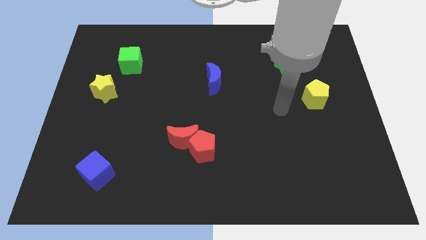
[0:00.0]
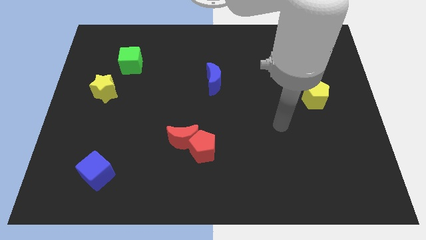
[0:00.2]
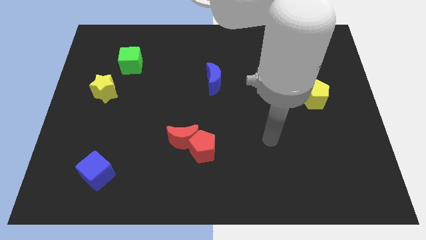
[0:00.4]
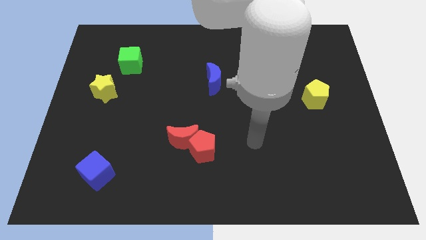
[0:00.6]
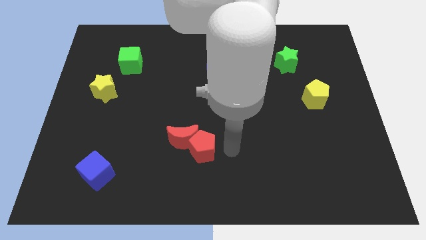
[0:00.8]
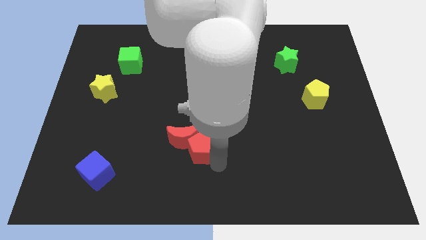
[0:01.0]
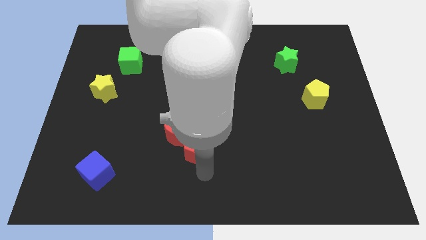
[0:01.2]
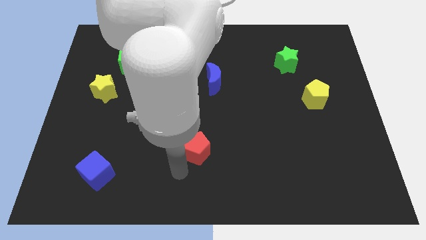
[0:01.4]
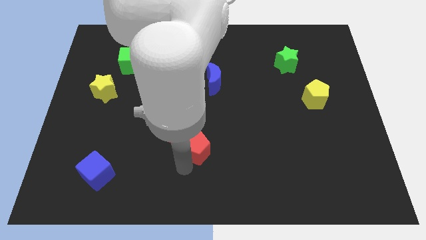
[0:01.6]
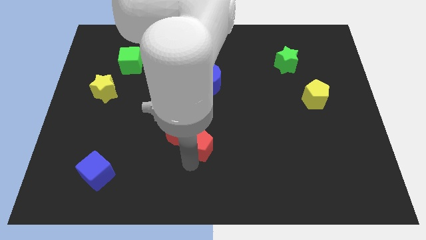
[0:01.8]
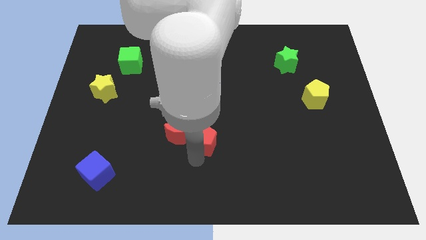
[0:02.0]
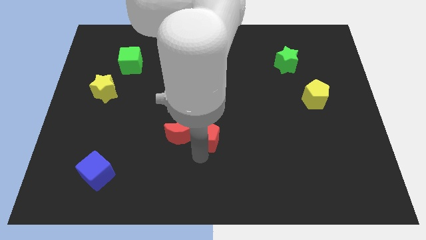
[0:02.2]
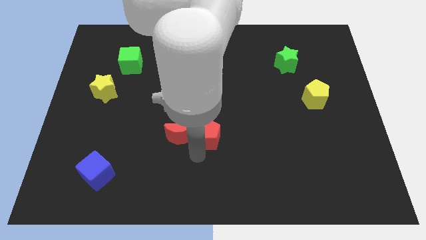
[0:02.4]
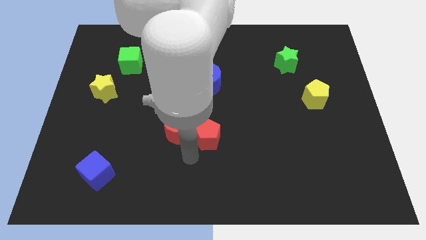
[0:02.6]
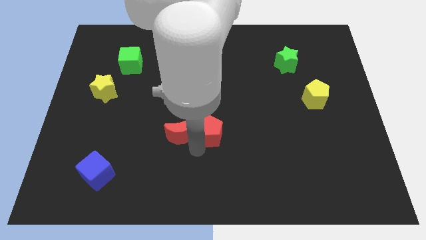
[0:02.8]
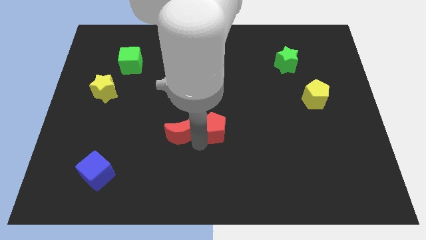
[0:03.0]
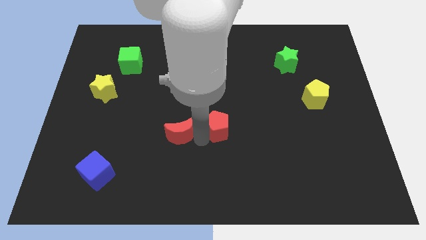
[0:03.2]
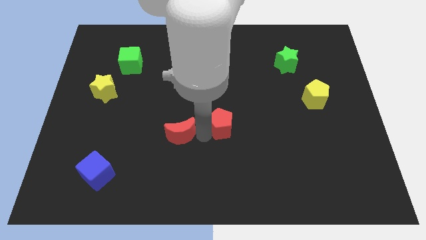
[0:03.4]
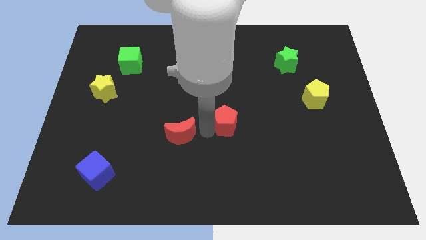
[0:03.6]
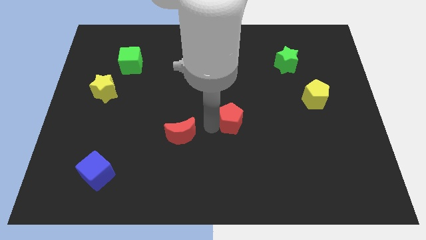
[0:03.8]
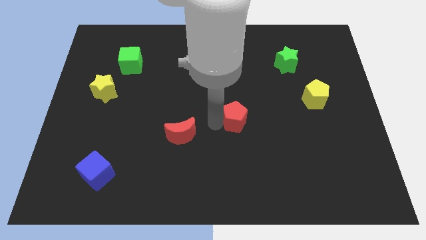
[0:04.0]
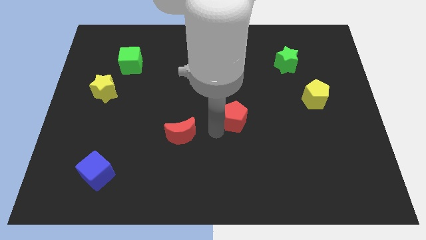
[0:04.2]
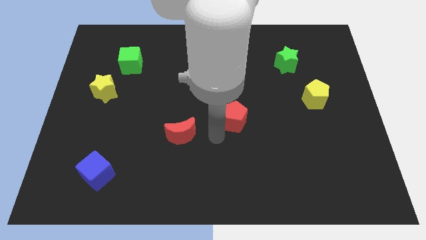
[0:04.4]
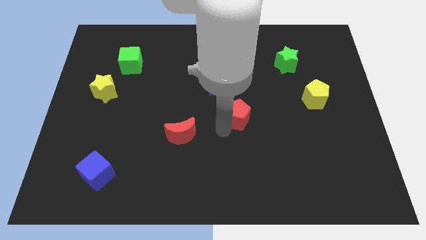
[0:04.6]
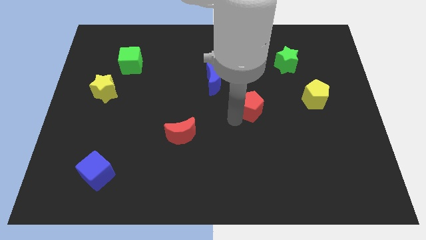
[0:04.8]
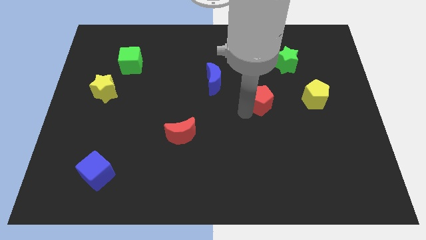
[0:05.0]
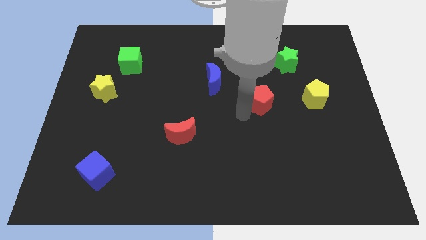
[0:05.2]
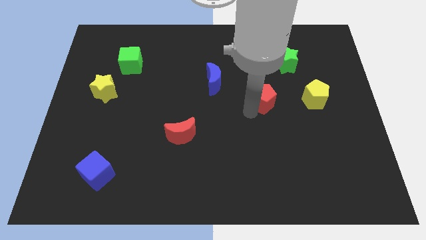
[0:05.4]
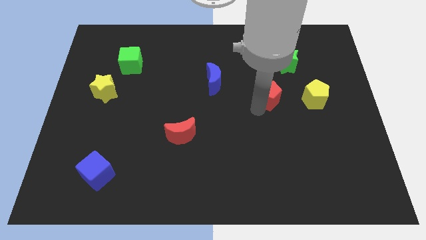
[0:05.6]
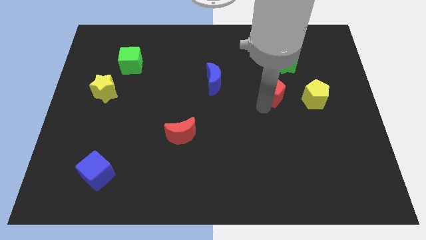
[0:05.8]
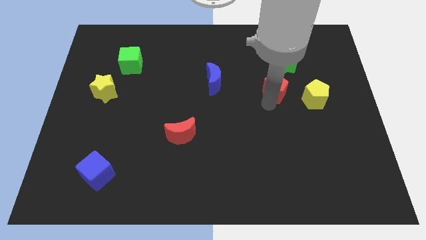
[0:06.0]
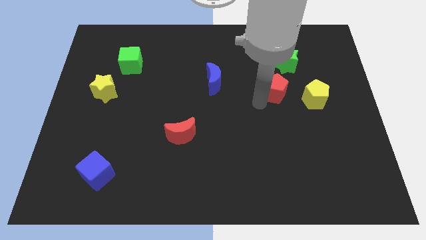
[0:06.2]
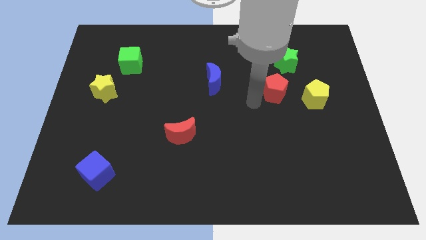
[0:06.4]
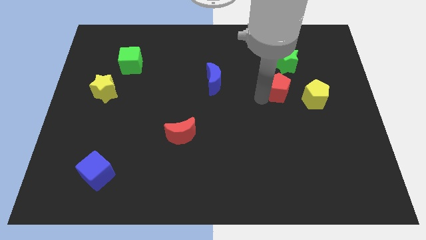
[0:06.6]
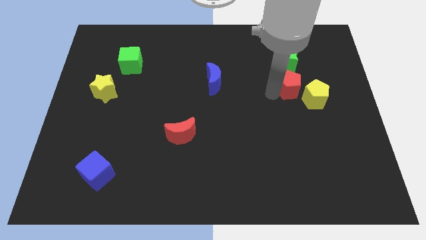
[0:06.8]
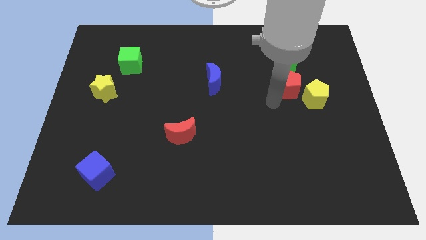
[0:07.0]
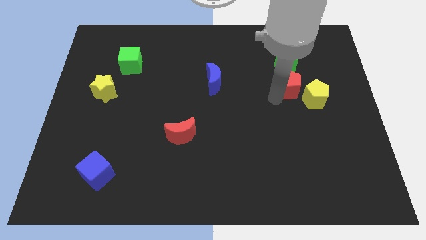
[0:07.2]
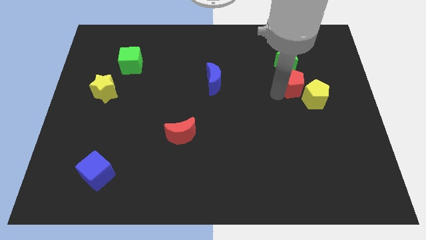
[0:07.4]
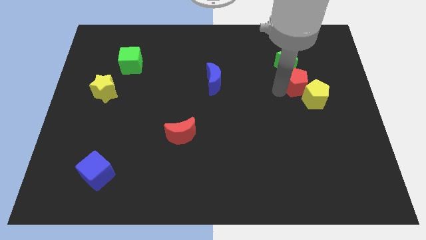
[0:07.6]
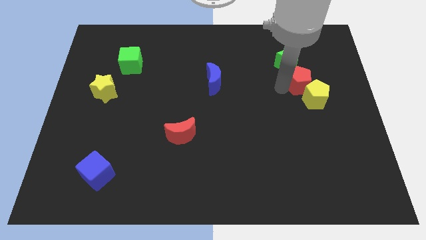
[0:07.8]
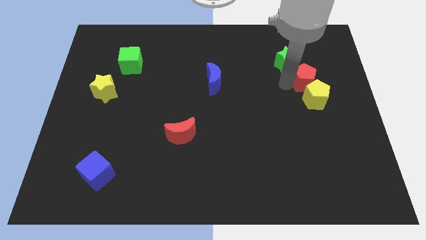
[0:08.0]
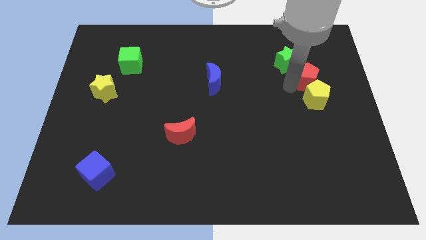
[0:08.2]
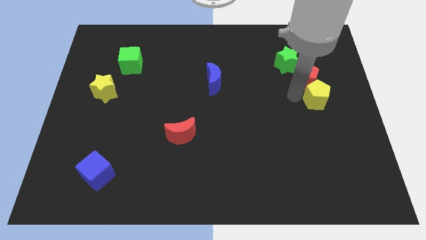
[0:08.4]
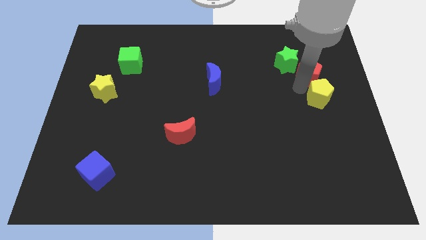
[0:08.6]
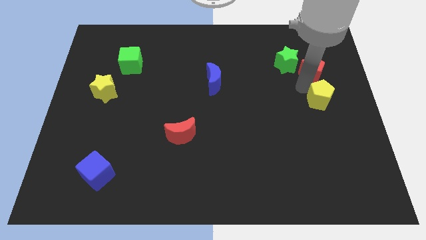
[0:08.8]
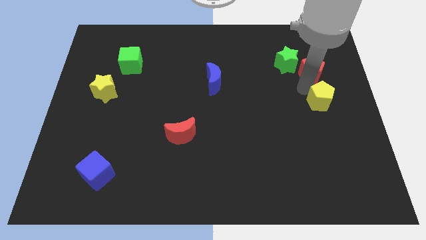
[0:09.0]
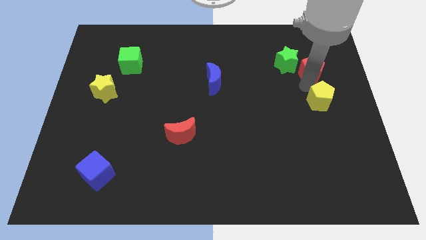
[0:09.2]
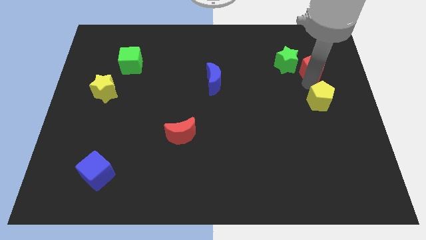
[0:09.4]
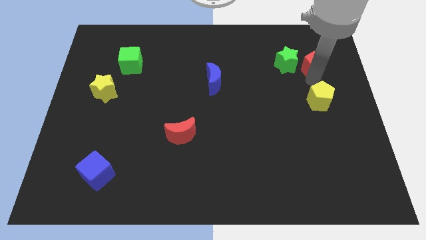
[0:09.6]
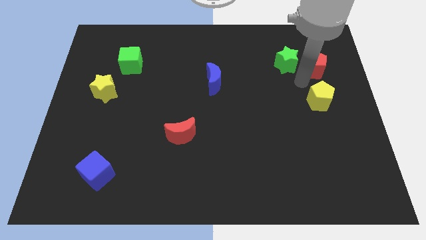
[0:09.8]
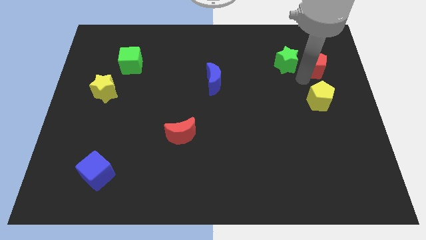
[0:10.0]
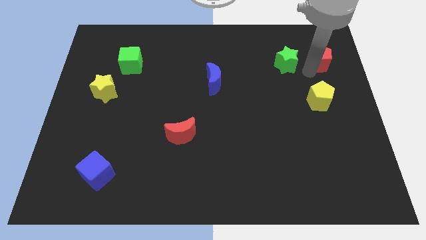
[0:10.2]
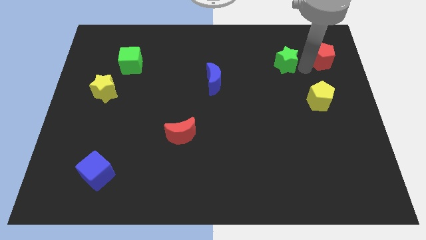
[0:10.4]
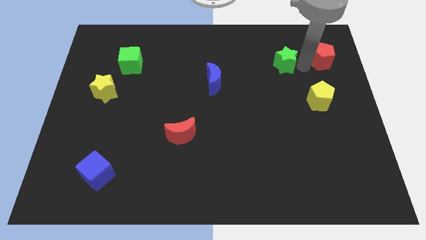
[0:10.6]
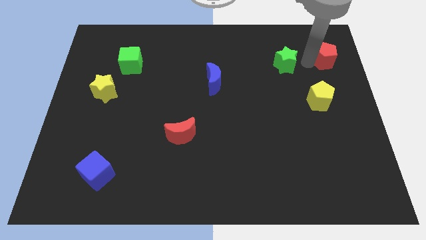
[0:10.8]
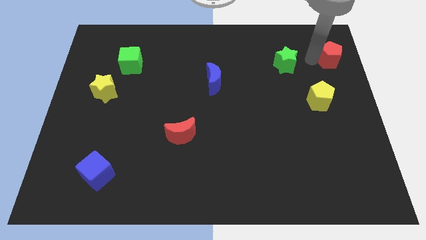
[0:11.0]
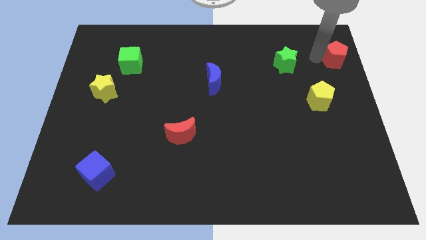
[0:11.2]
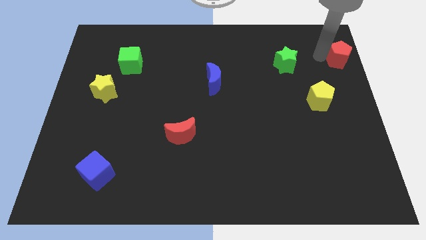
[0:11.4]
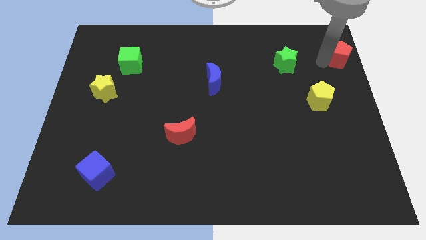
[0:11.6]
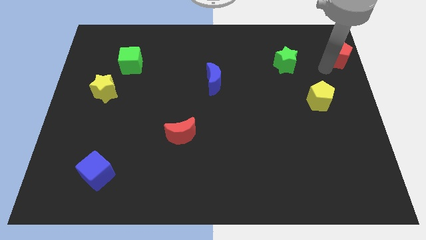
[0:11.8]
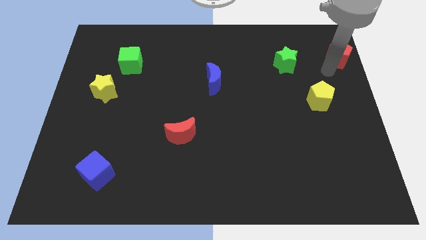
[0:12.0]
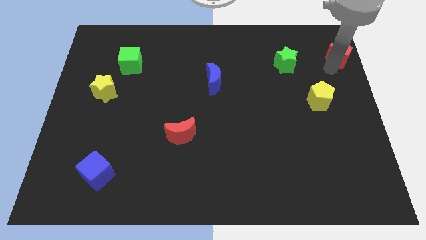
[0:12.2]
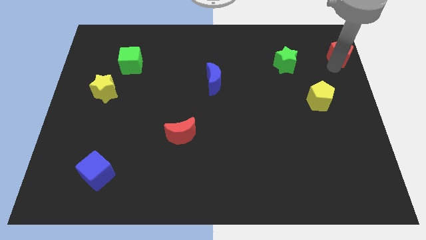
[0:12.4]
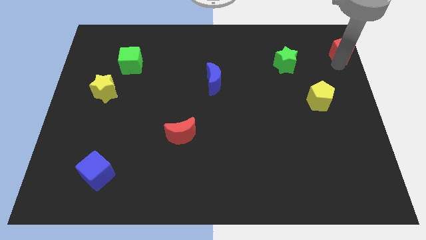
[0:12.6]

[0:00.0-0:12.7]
put the red pentagon to the upper right corner
